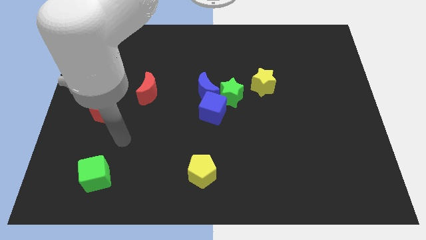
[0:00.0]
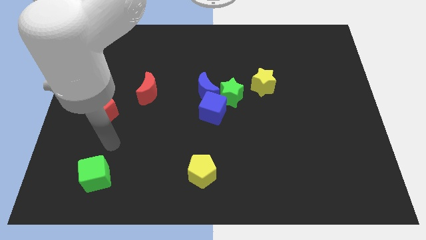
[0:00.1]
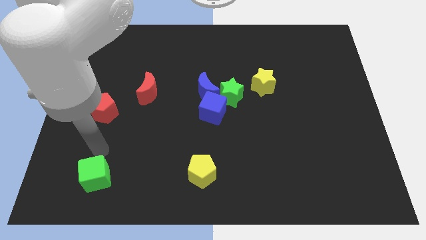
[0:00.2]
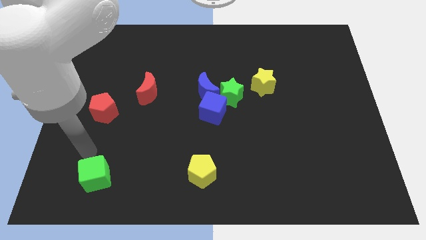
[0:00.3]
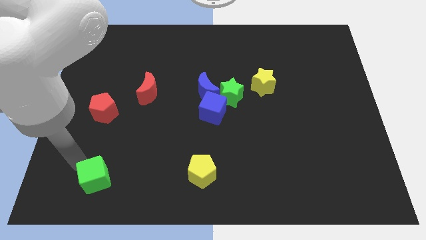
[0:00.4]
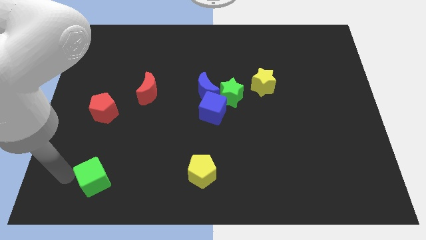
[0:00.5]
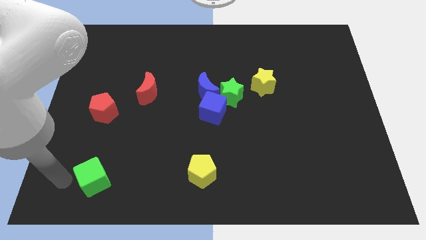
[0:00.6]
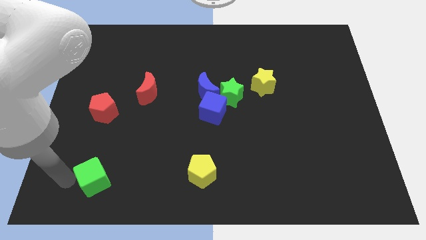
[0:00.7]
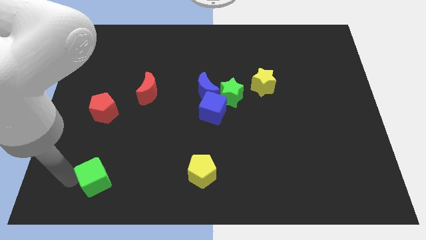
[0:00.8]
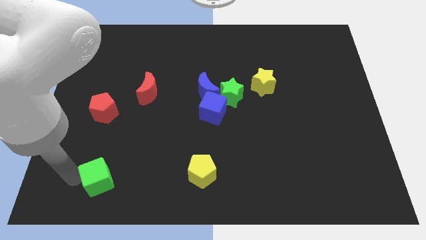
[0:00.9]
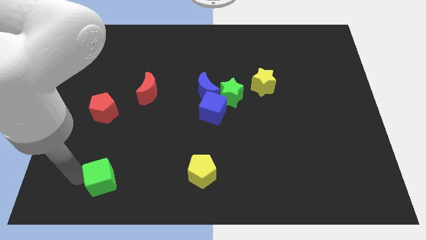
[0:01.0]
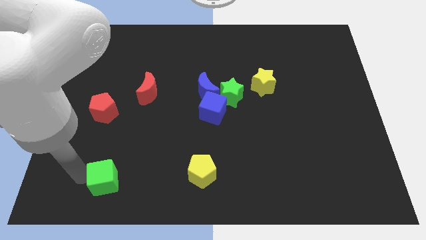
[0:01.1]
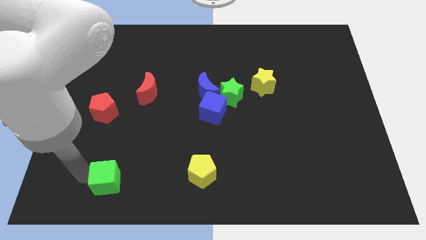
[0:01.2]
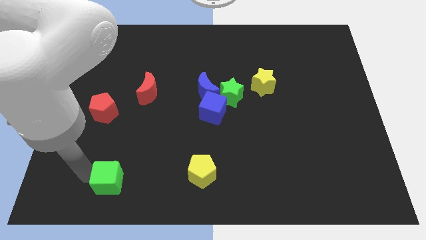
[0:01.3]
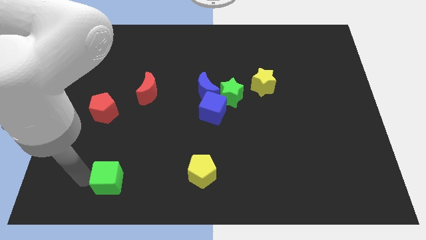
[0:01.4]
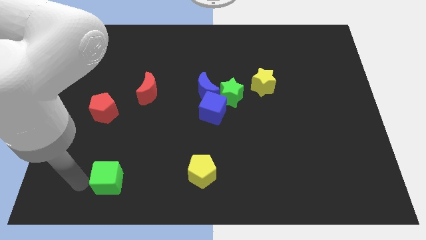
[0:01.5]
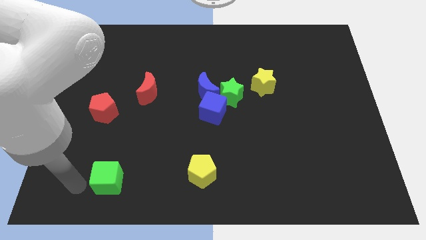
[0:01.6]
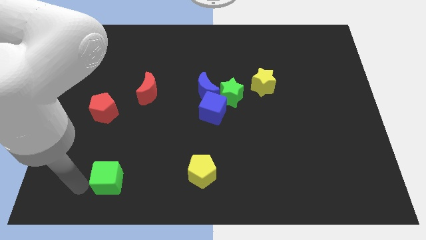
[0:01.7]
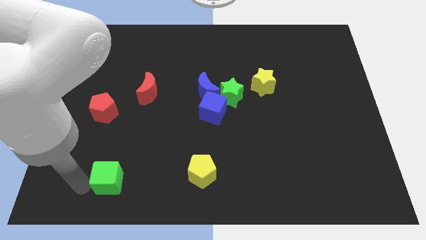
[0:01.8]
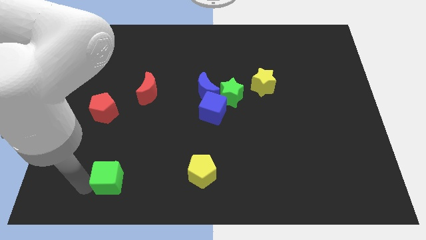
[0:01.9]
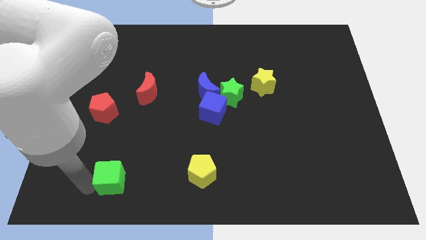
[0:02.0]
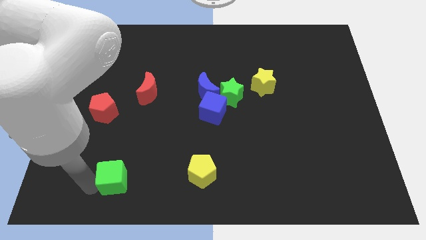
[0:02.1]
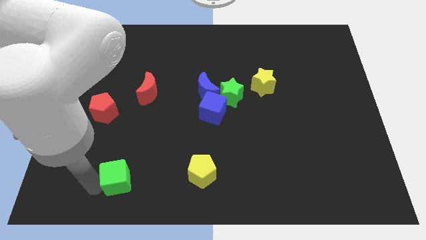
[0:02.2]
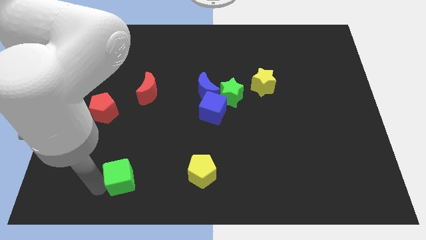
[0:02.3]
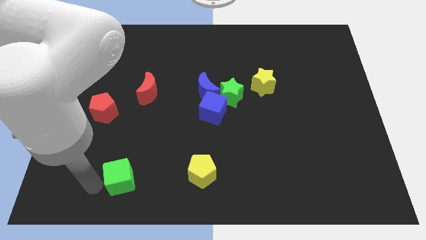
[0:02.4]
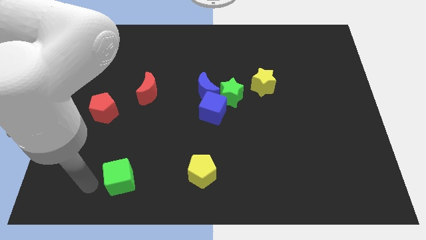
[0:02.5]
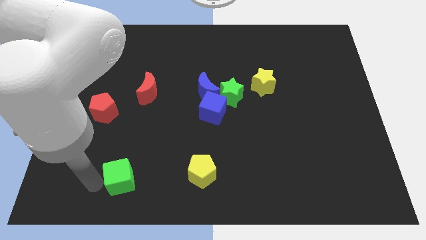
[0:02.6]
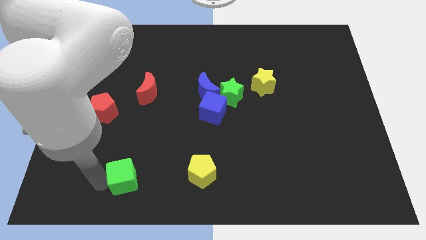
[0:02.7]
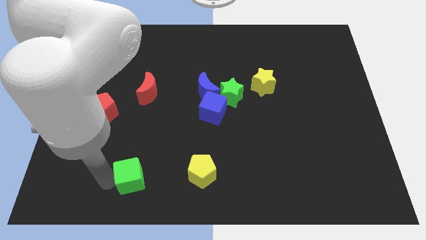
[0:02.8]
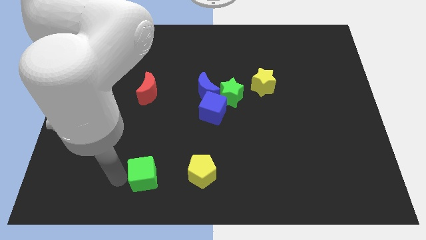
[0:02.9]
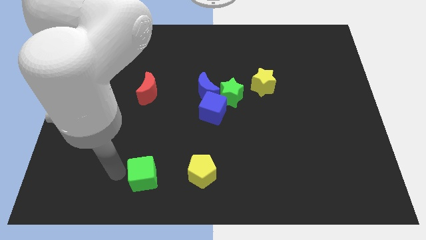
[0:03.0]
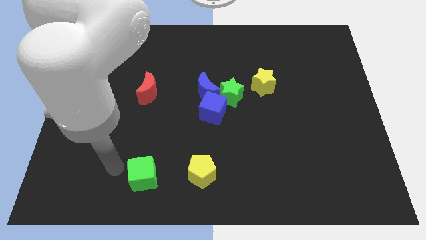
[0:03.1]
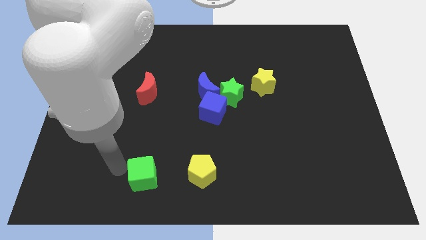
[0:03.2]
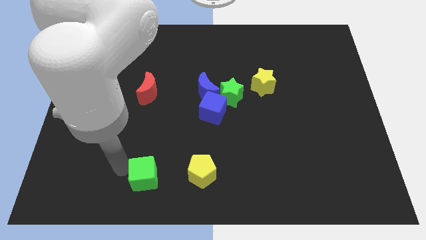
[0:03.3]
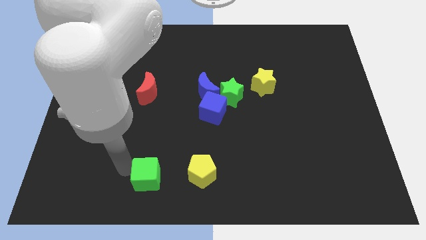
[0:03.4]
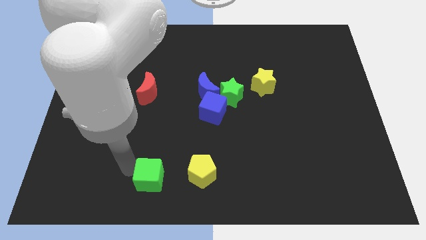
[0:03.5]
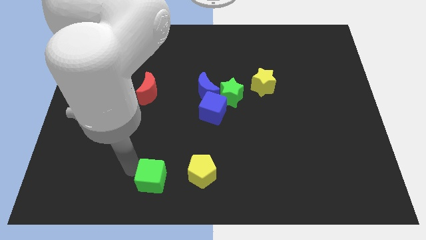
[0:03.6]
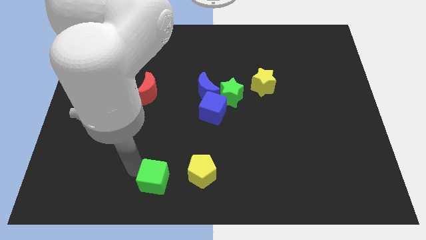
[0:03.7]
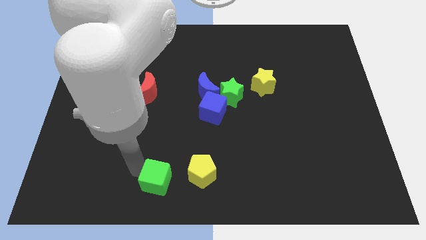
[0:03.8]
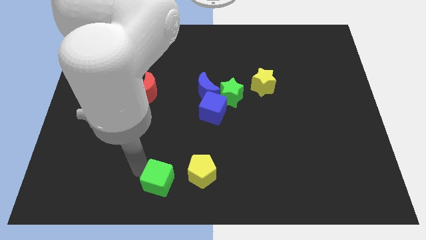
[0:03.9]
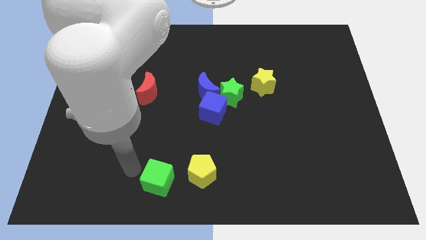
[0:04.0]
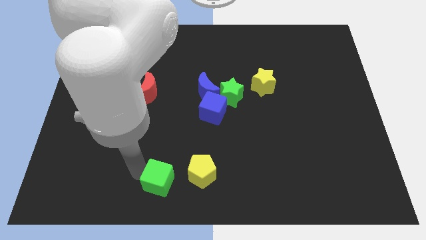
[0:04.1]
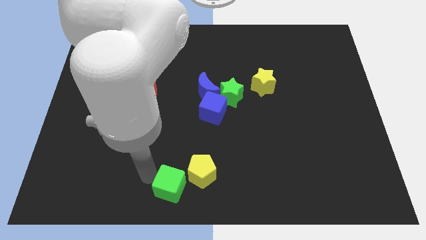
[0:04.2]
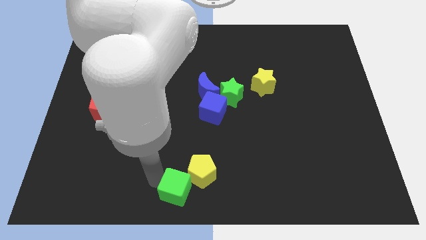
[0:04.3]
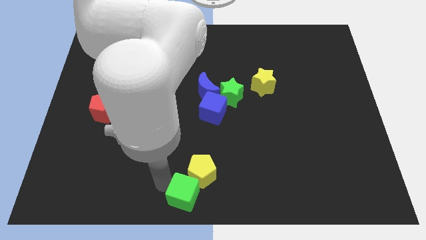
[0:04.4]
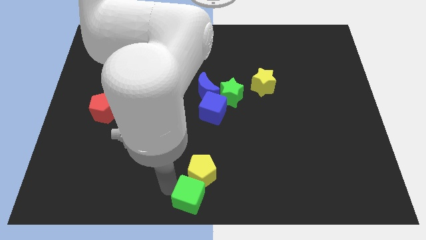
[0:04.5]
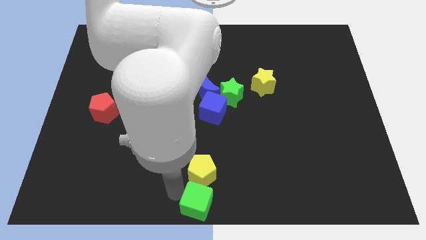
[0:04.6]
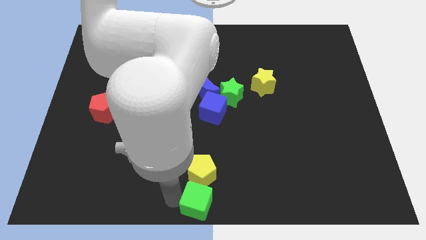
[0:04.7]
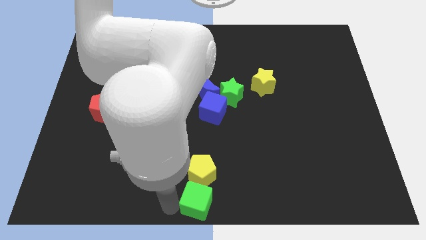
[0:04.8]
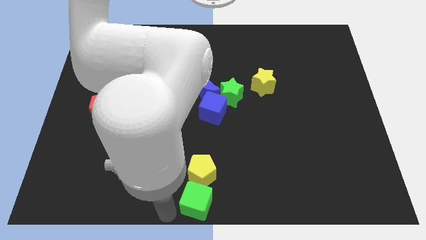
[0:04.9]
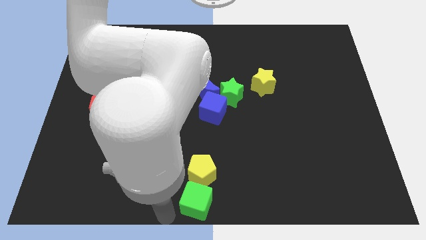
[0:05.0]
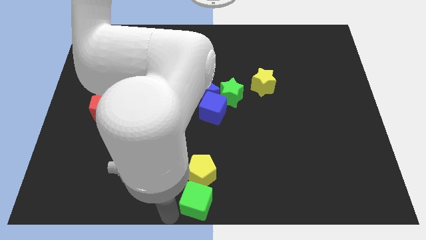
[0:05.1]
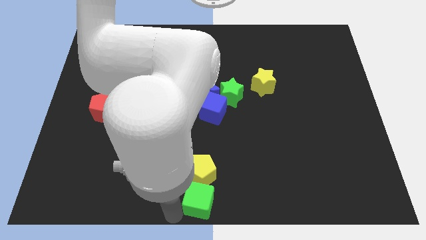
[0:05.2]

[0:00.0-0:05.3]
move the green cube to the right

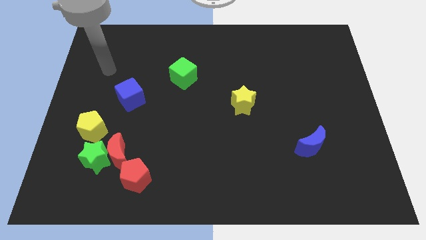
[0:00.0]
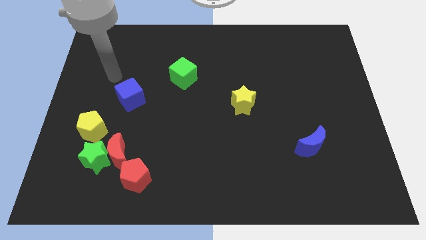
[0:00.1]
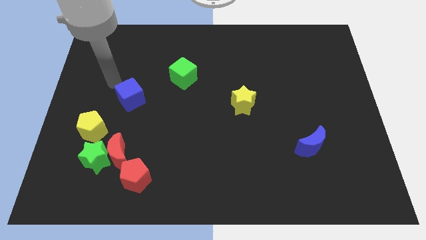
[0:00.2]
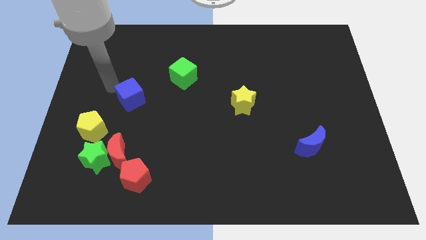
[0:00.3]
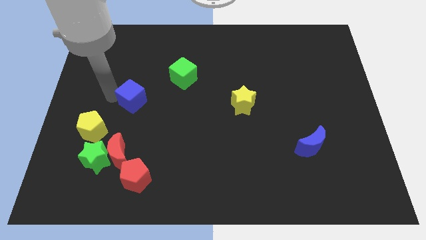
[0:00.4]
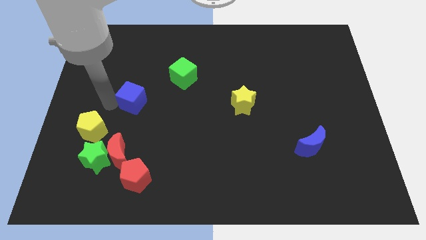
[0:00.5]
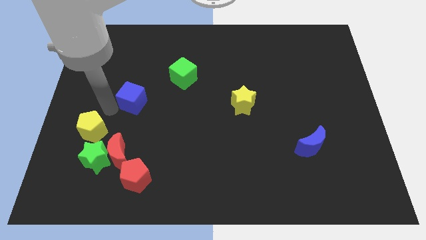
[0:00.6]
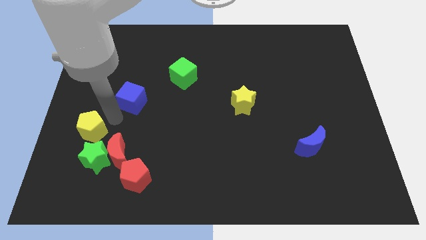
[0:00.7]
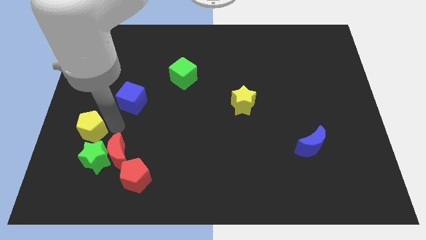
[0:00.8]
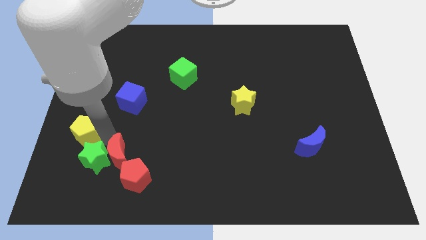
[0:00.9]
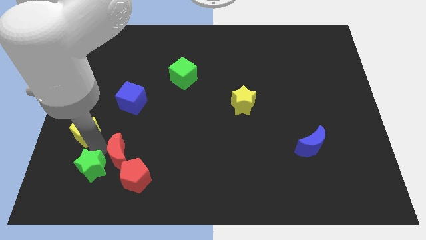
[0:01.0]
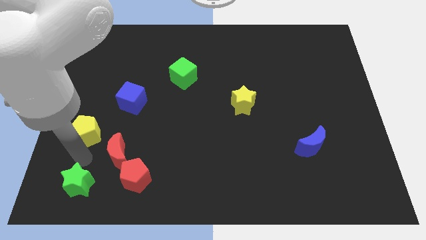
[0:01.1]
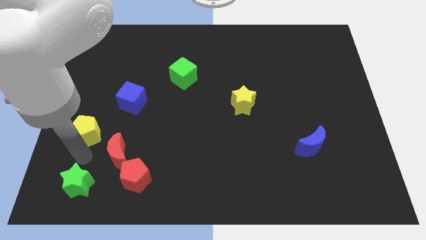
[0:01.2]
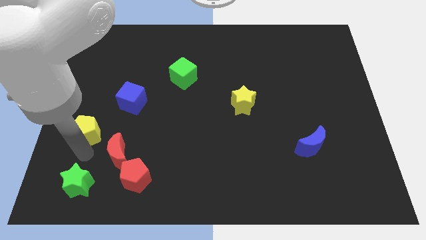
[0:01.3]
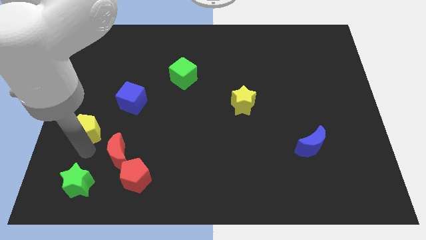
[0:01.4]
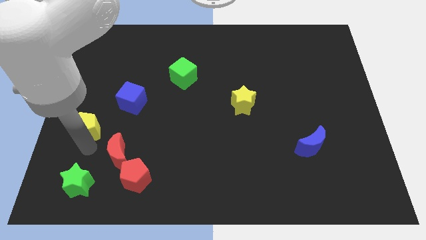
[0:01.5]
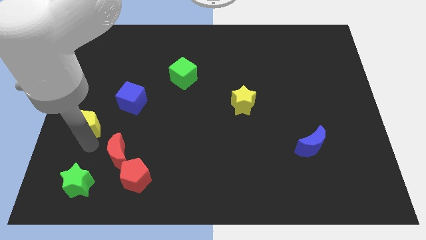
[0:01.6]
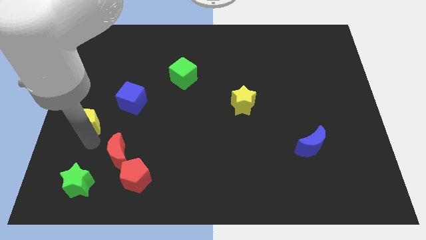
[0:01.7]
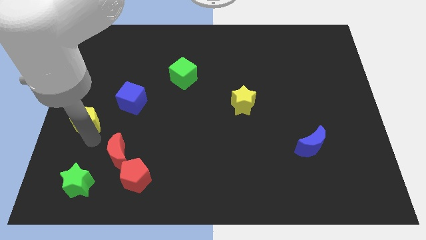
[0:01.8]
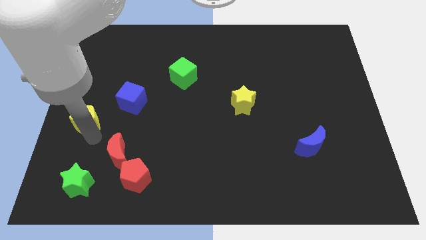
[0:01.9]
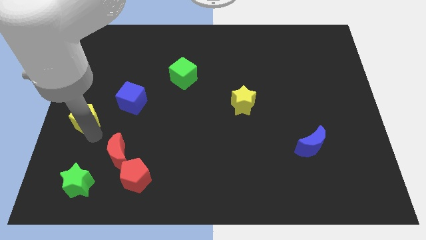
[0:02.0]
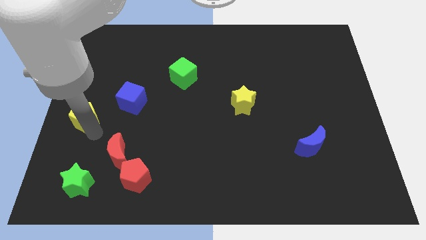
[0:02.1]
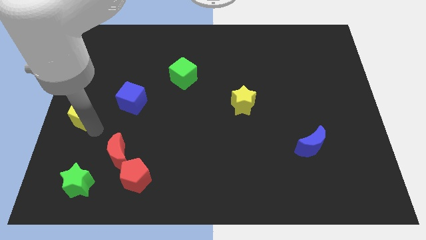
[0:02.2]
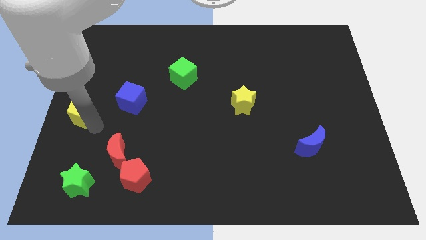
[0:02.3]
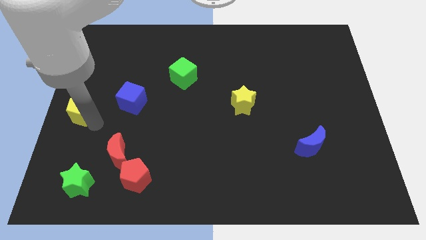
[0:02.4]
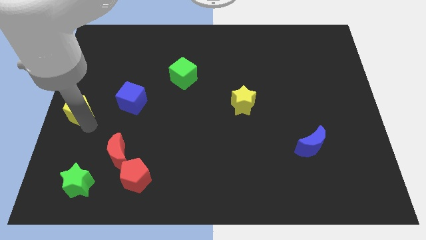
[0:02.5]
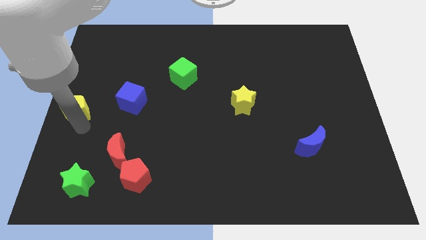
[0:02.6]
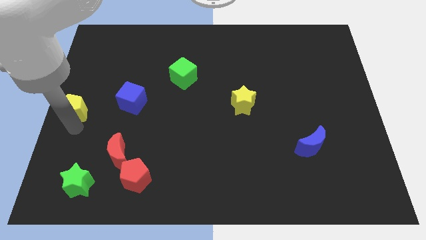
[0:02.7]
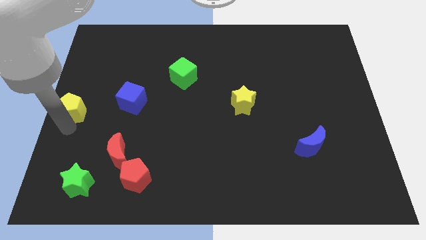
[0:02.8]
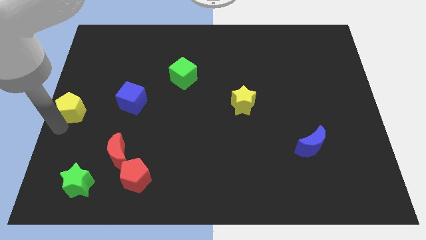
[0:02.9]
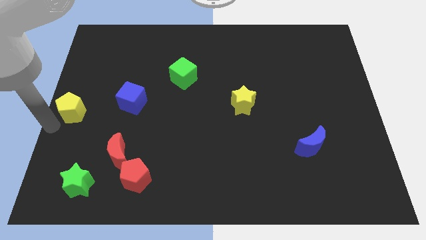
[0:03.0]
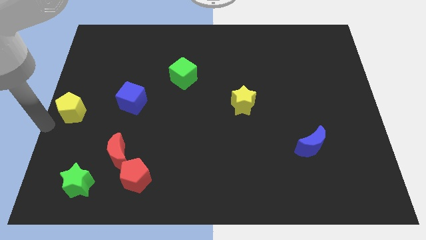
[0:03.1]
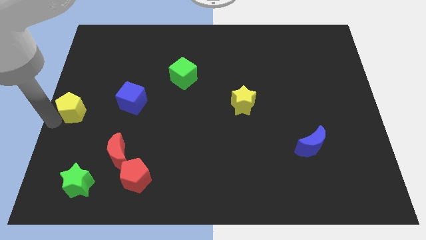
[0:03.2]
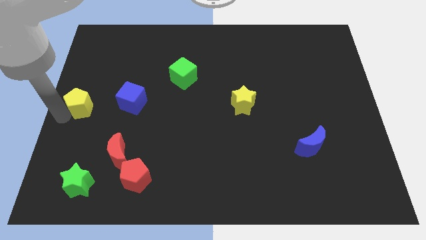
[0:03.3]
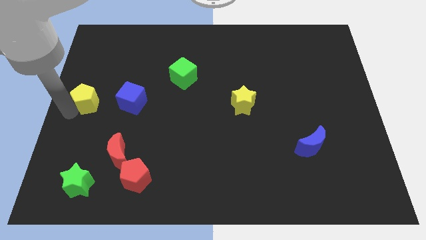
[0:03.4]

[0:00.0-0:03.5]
slightly move the yellow pentagon up
